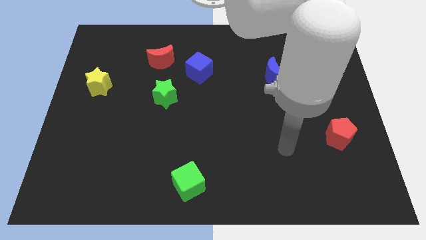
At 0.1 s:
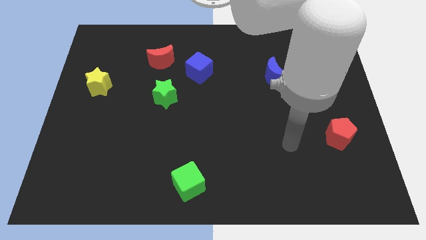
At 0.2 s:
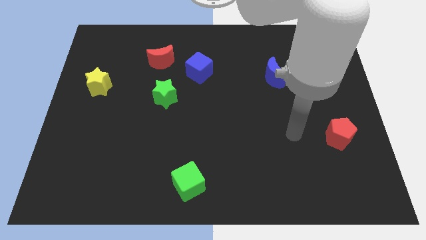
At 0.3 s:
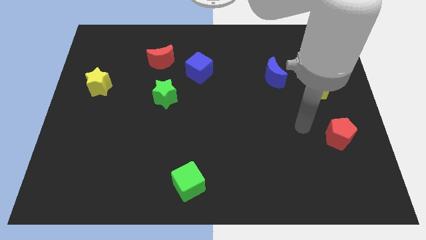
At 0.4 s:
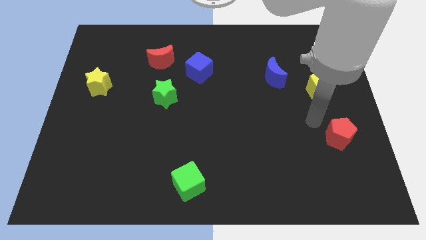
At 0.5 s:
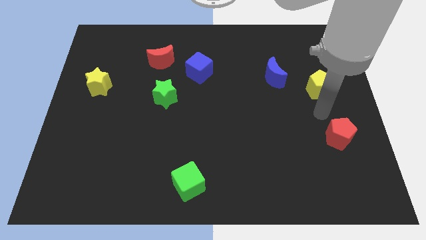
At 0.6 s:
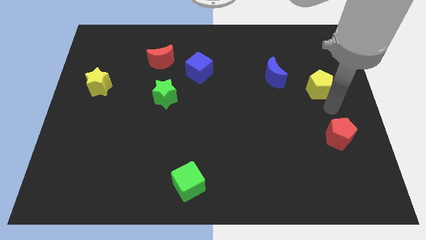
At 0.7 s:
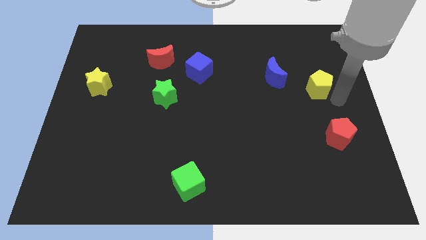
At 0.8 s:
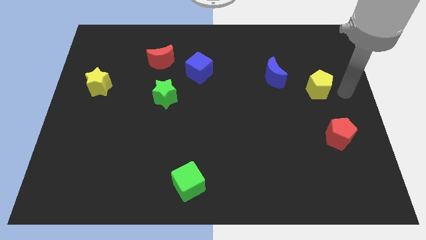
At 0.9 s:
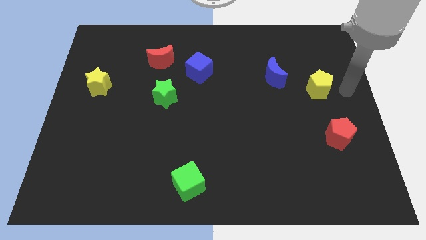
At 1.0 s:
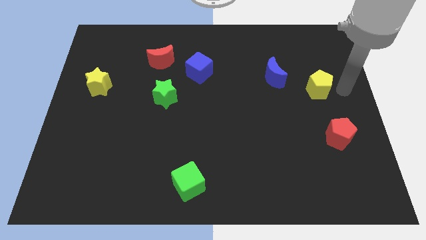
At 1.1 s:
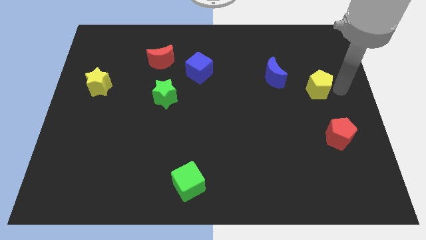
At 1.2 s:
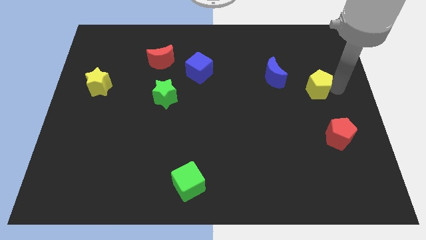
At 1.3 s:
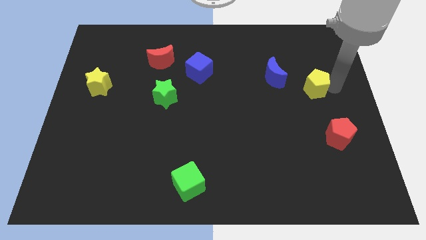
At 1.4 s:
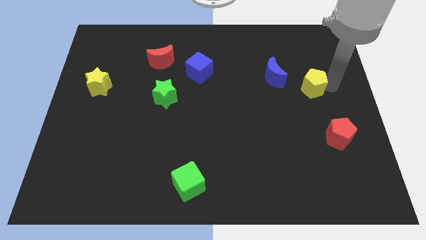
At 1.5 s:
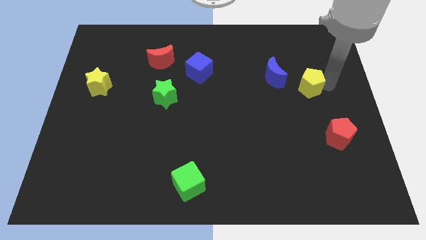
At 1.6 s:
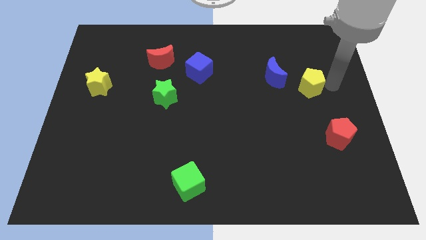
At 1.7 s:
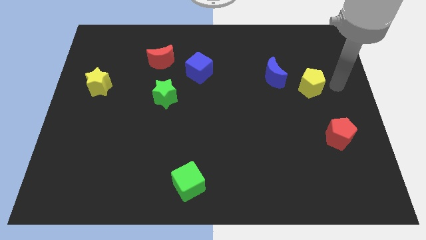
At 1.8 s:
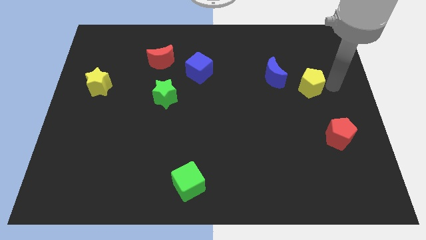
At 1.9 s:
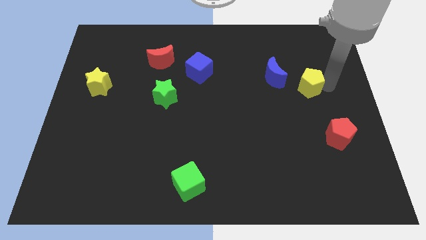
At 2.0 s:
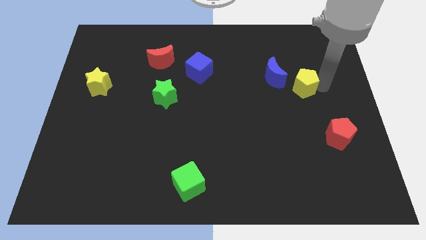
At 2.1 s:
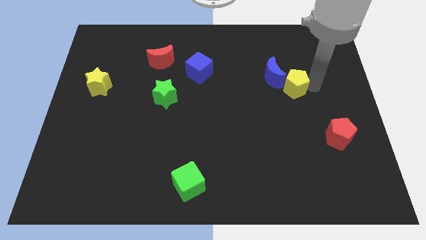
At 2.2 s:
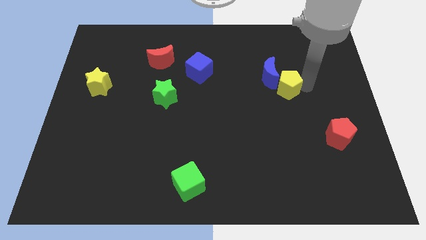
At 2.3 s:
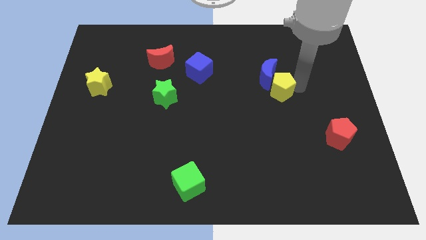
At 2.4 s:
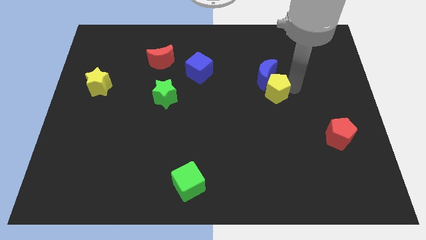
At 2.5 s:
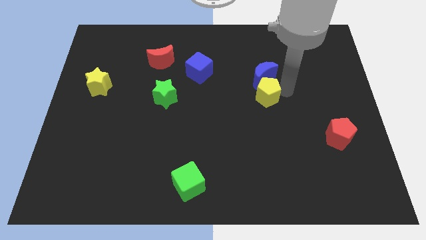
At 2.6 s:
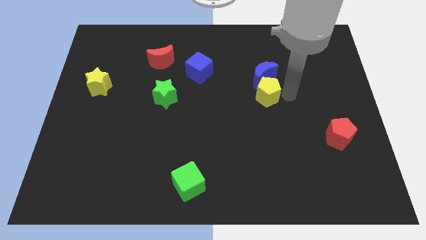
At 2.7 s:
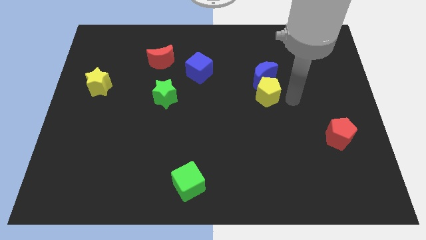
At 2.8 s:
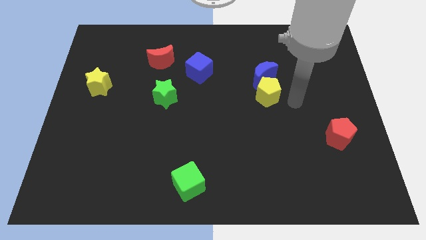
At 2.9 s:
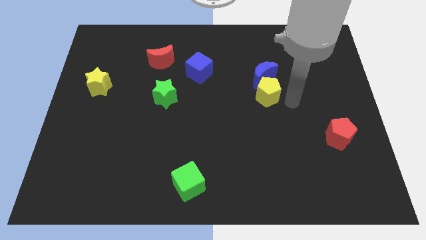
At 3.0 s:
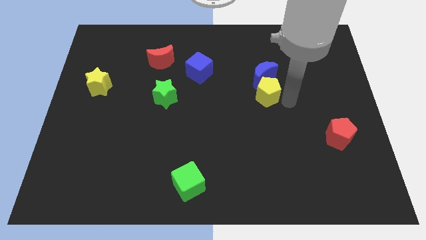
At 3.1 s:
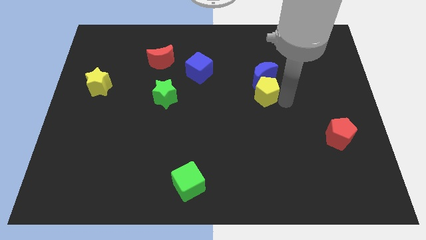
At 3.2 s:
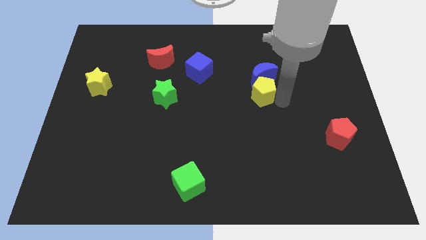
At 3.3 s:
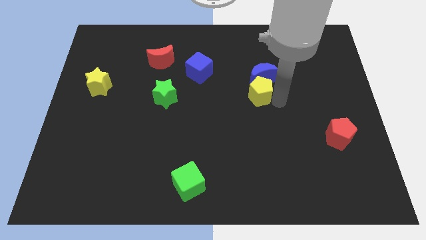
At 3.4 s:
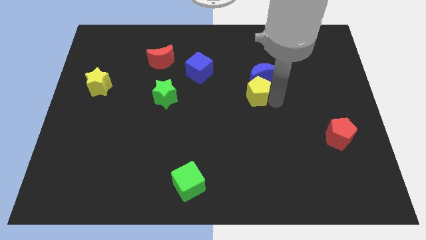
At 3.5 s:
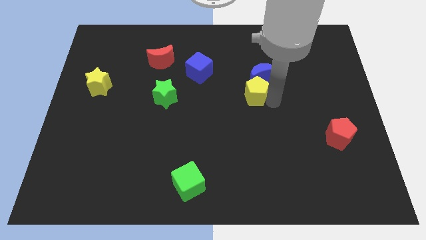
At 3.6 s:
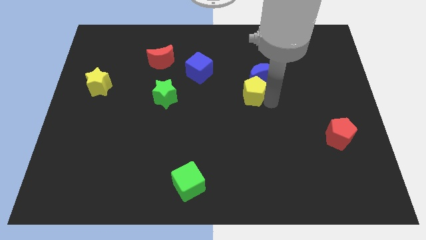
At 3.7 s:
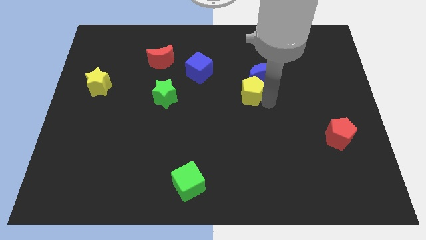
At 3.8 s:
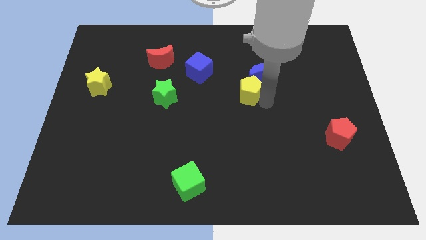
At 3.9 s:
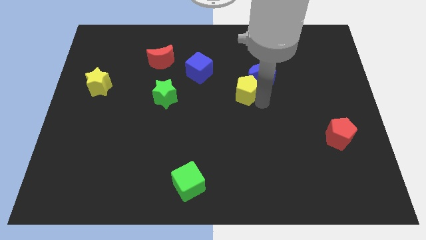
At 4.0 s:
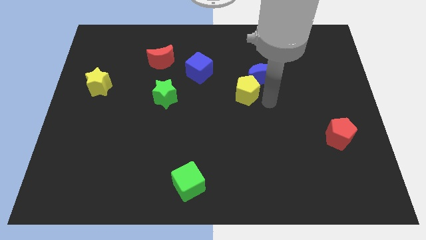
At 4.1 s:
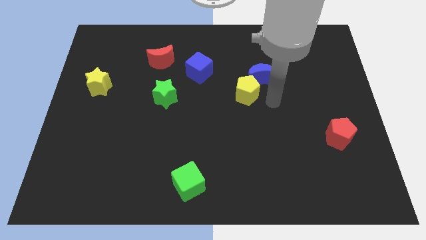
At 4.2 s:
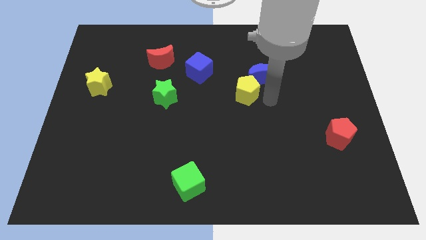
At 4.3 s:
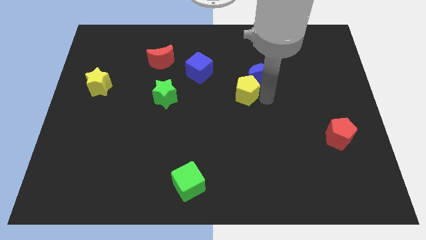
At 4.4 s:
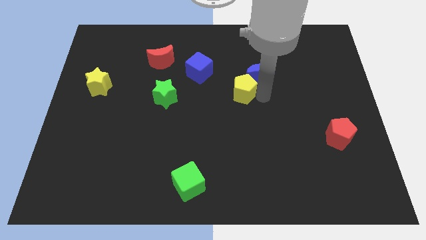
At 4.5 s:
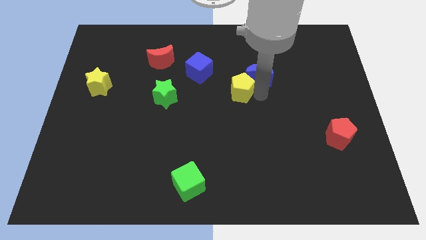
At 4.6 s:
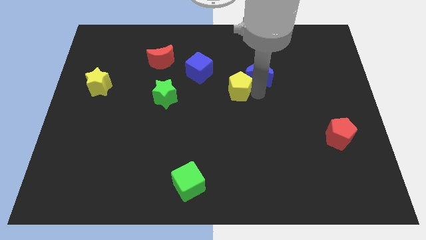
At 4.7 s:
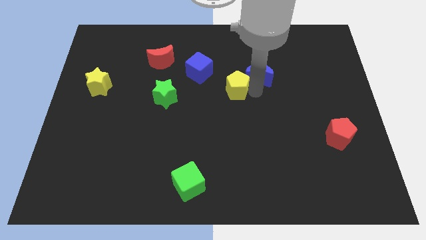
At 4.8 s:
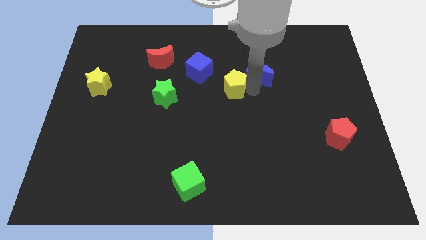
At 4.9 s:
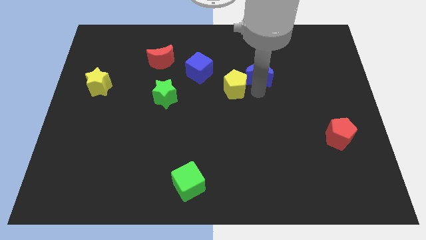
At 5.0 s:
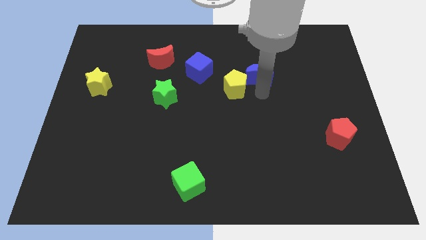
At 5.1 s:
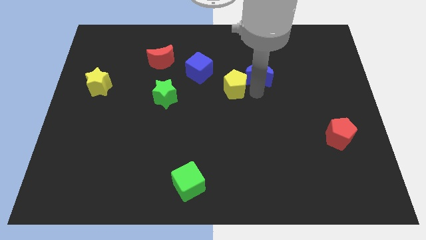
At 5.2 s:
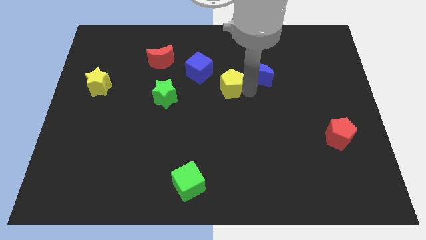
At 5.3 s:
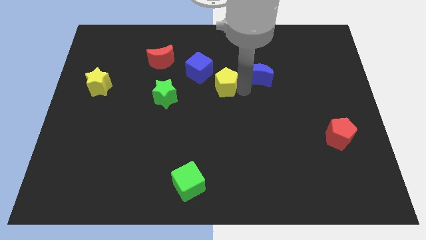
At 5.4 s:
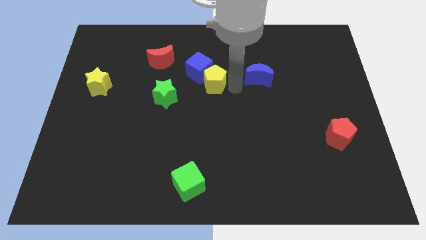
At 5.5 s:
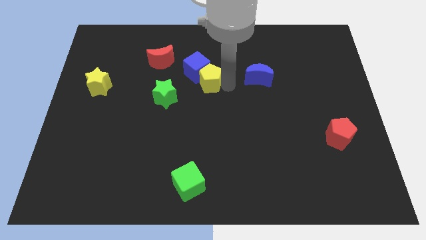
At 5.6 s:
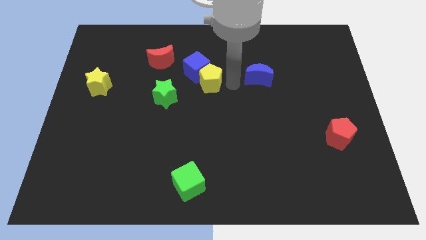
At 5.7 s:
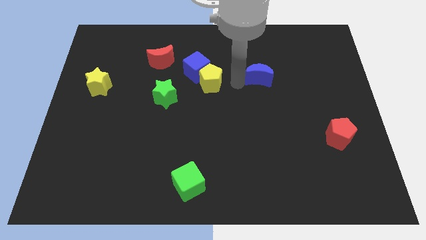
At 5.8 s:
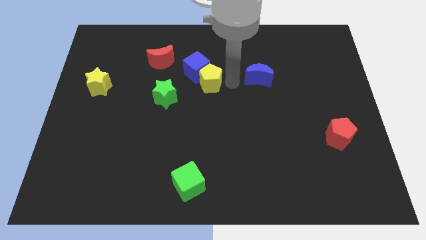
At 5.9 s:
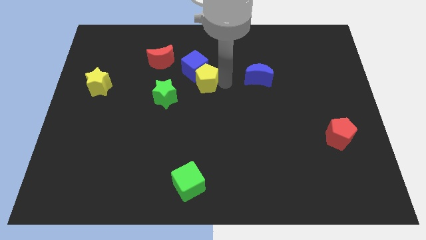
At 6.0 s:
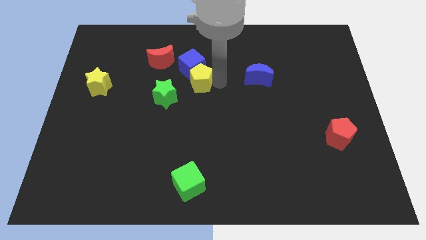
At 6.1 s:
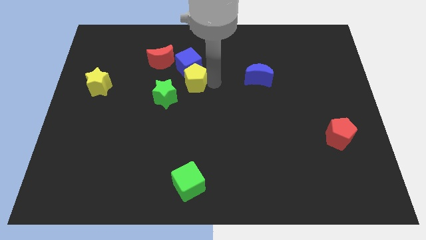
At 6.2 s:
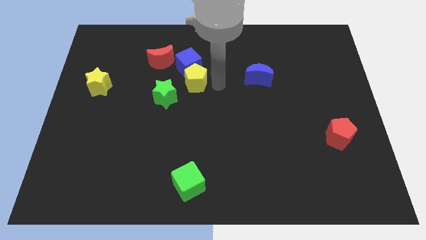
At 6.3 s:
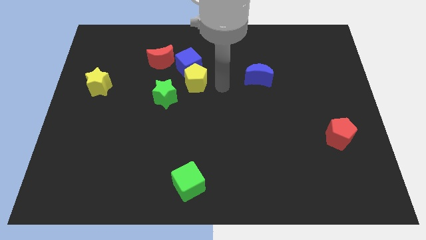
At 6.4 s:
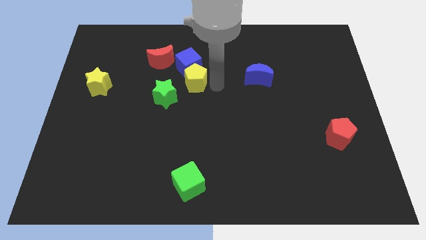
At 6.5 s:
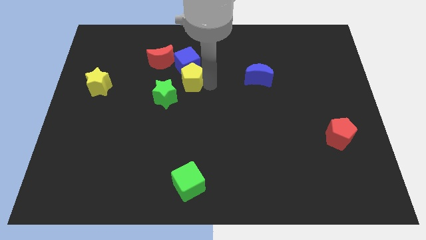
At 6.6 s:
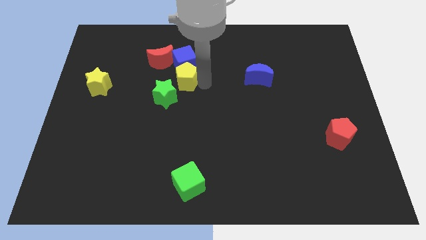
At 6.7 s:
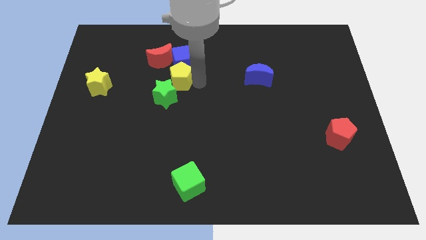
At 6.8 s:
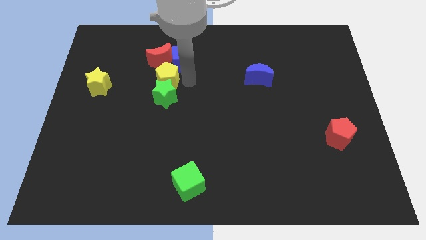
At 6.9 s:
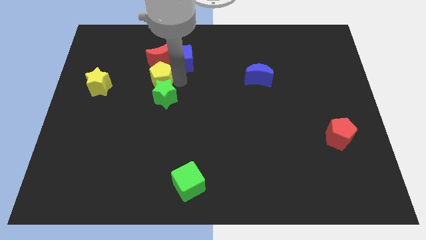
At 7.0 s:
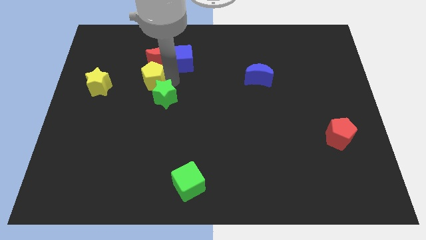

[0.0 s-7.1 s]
move the yellow pentagon to the bottom left side of the red moon
